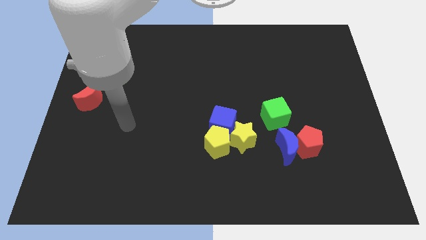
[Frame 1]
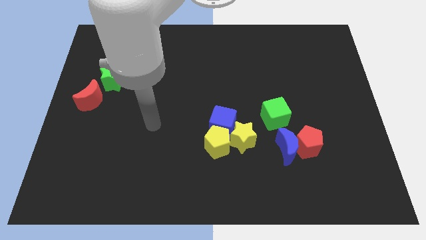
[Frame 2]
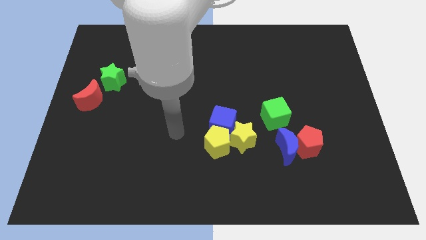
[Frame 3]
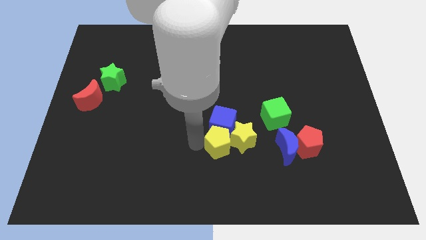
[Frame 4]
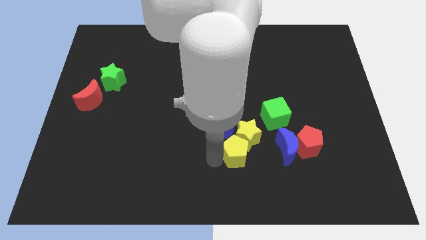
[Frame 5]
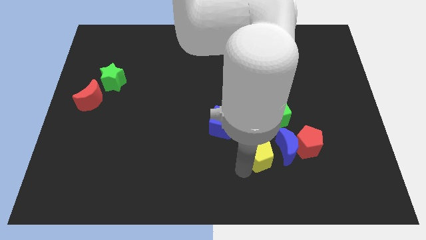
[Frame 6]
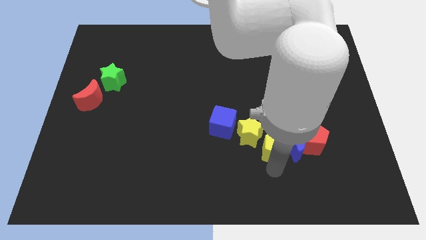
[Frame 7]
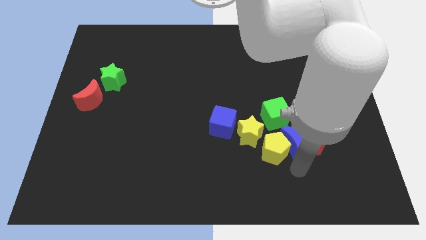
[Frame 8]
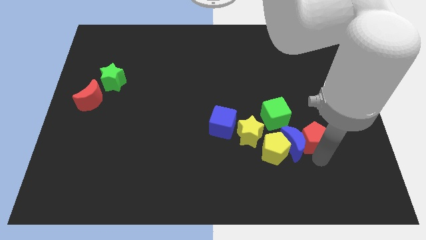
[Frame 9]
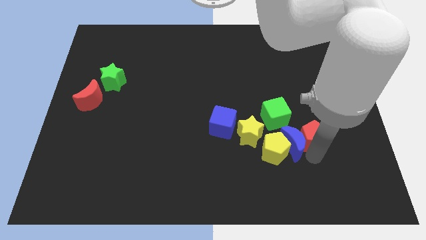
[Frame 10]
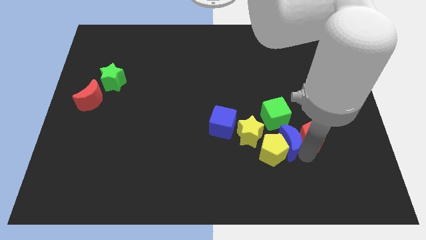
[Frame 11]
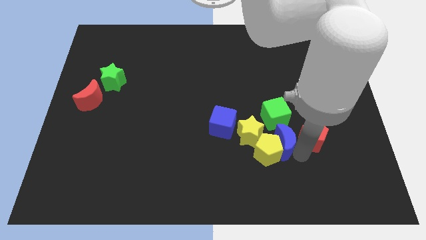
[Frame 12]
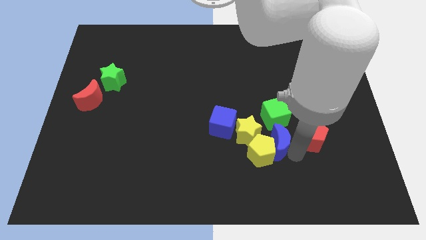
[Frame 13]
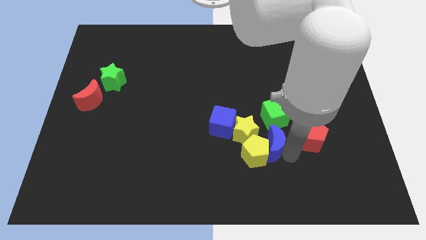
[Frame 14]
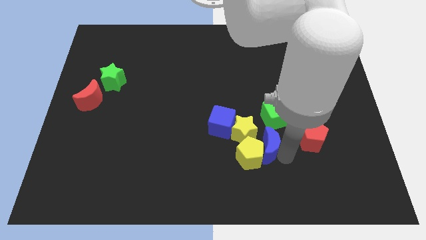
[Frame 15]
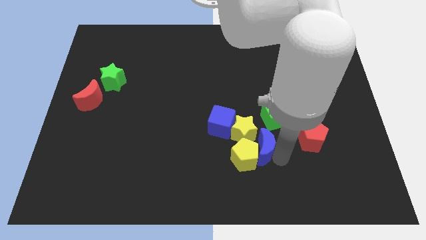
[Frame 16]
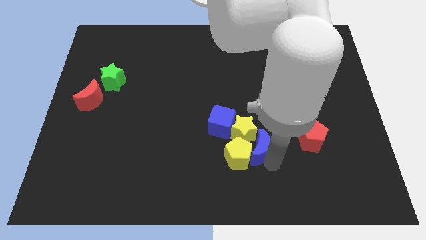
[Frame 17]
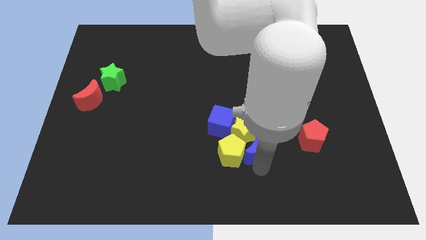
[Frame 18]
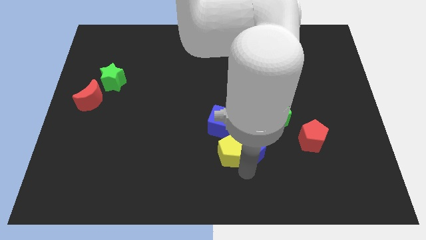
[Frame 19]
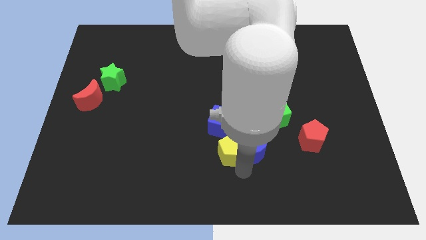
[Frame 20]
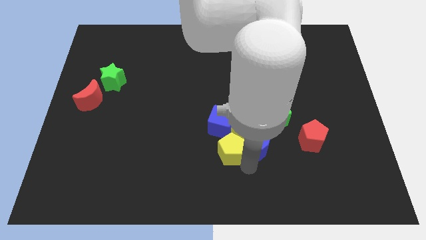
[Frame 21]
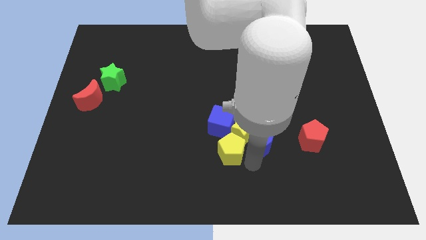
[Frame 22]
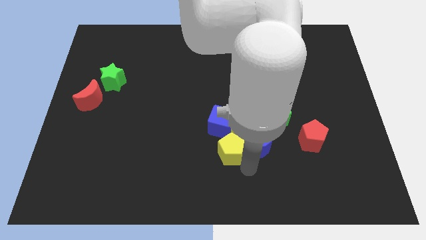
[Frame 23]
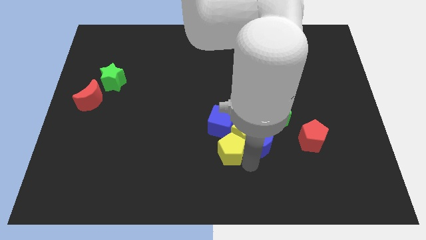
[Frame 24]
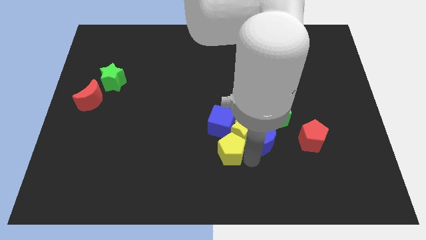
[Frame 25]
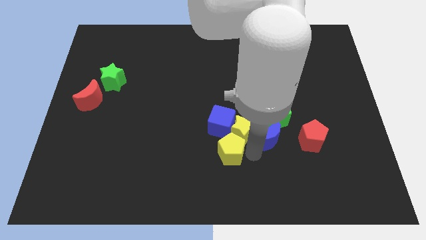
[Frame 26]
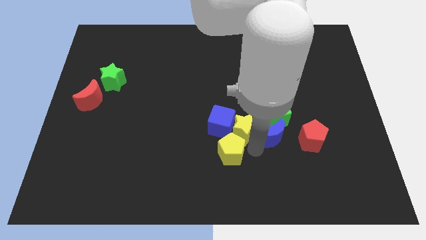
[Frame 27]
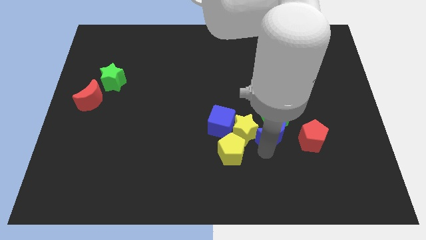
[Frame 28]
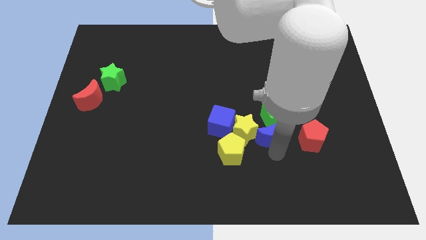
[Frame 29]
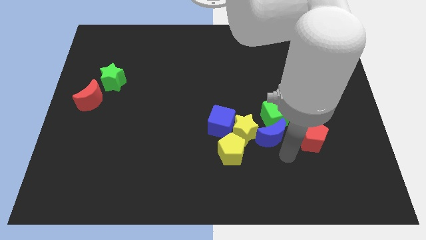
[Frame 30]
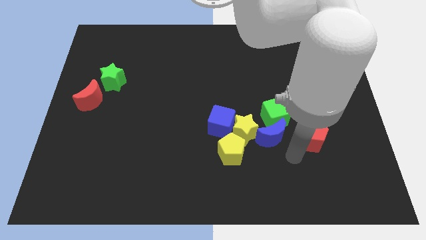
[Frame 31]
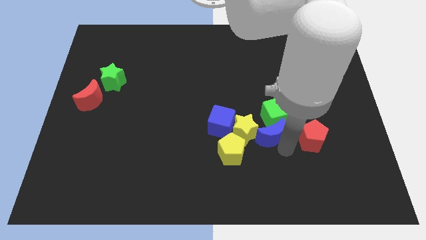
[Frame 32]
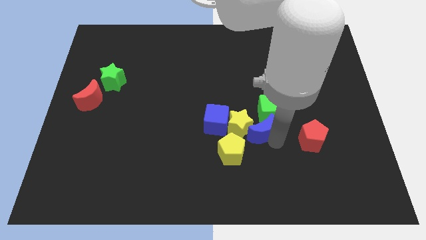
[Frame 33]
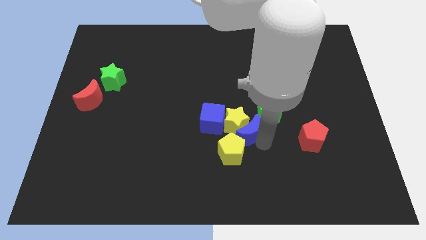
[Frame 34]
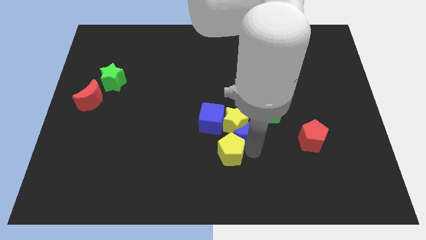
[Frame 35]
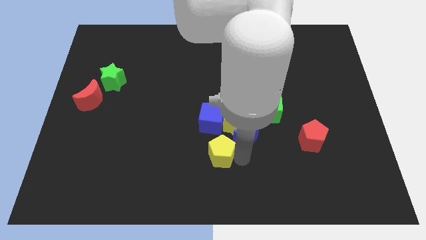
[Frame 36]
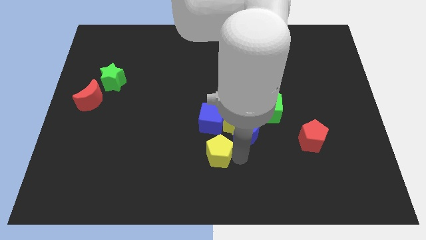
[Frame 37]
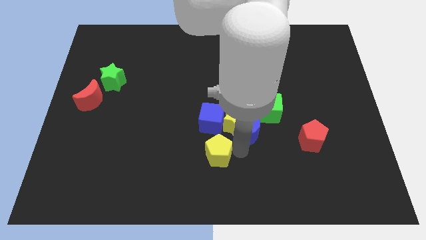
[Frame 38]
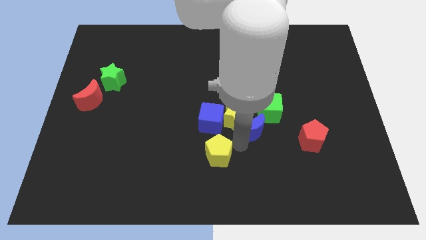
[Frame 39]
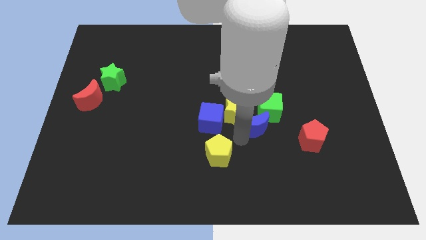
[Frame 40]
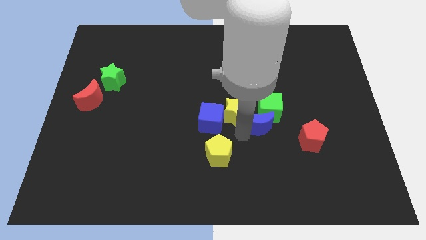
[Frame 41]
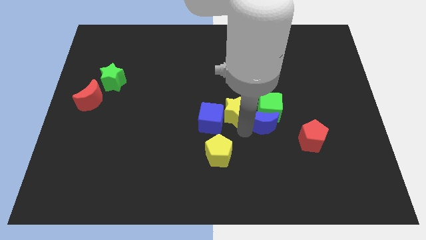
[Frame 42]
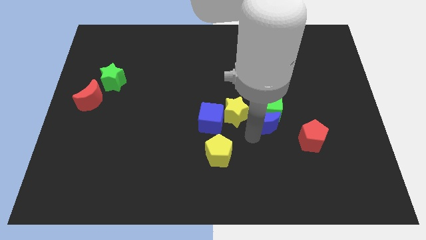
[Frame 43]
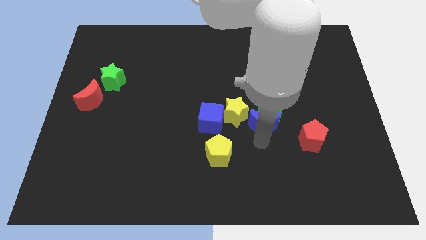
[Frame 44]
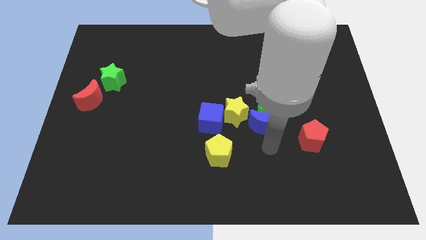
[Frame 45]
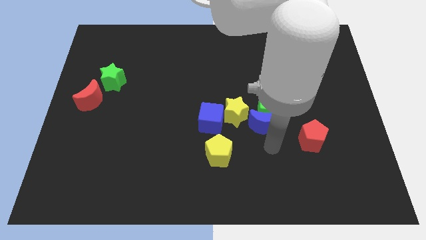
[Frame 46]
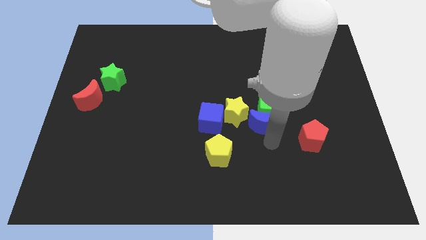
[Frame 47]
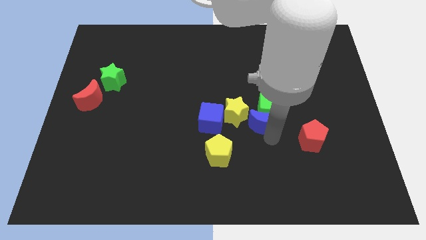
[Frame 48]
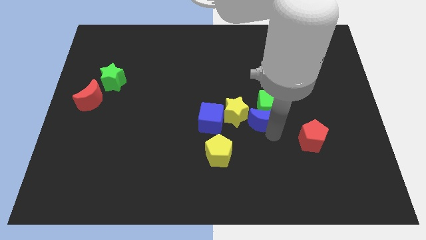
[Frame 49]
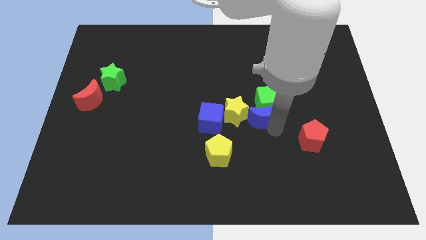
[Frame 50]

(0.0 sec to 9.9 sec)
push the blue moon somewhat up

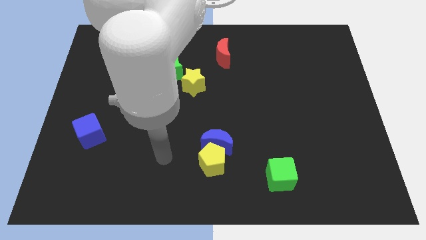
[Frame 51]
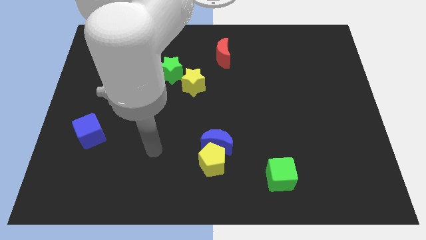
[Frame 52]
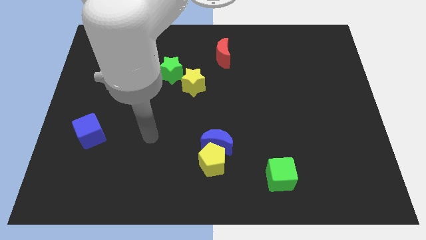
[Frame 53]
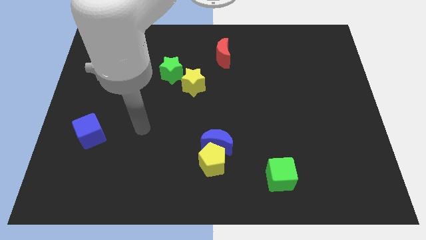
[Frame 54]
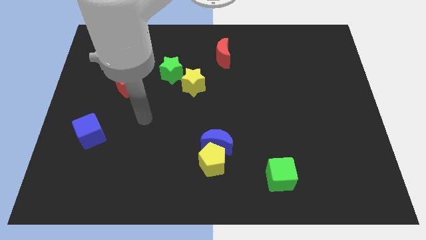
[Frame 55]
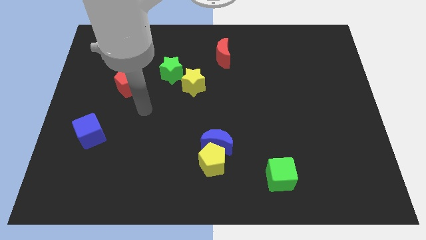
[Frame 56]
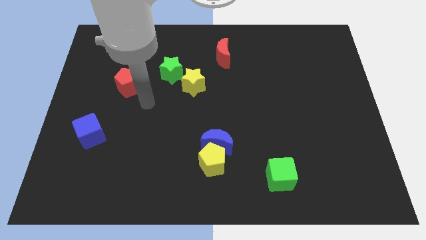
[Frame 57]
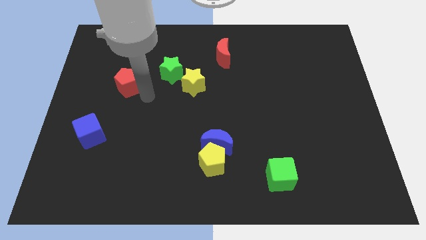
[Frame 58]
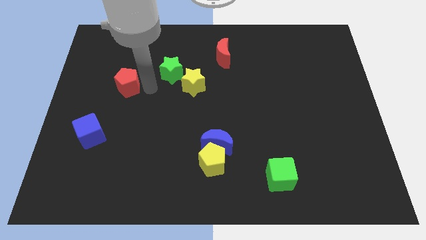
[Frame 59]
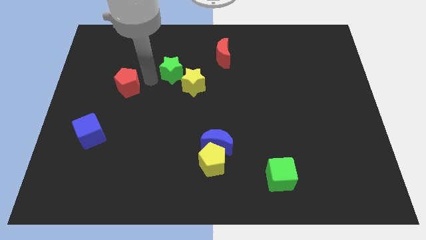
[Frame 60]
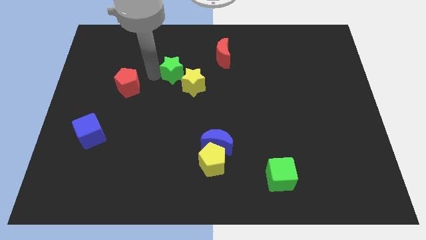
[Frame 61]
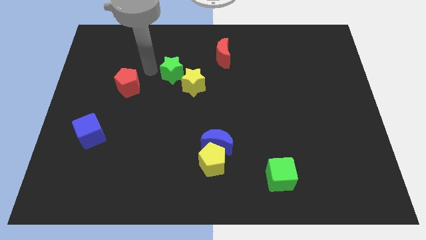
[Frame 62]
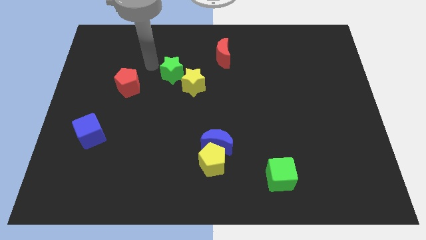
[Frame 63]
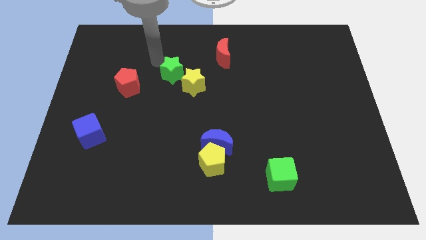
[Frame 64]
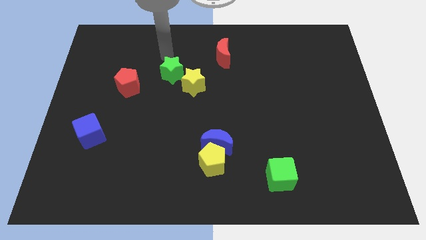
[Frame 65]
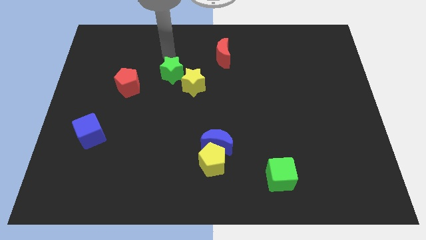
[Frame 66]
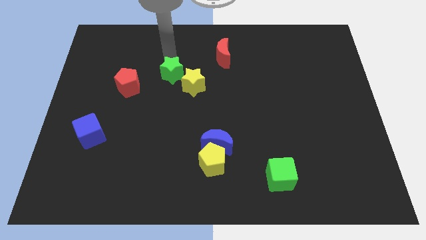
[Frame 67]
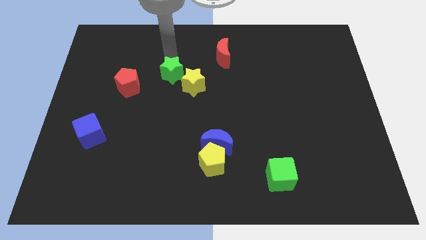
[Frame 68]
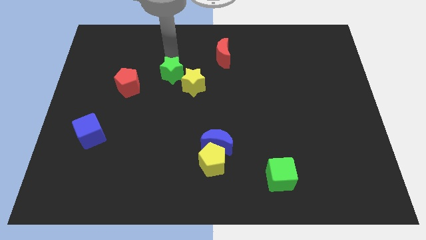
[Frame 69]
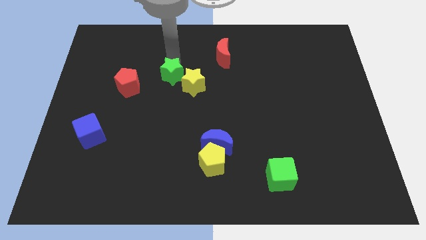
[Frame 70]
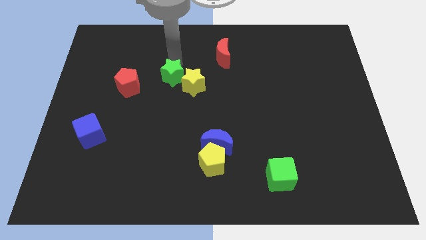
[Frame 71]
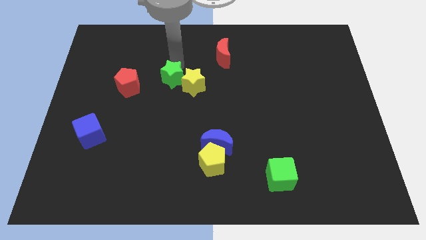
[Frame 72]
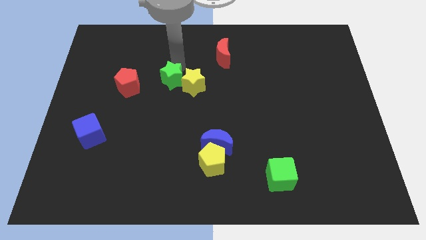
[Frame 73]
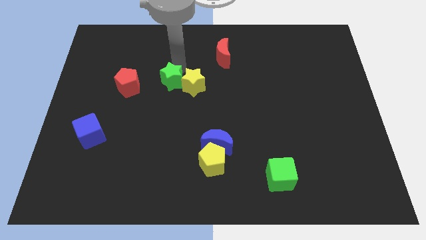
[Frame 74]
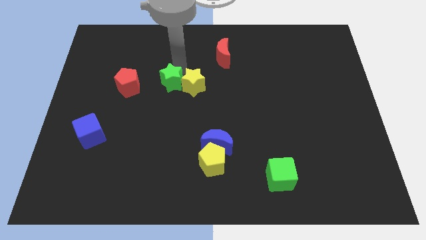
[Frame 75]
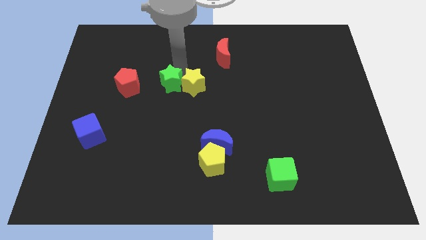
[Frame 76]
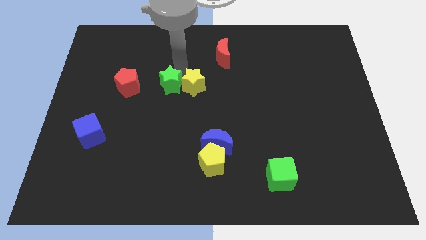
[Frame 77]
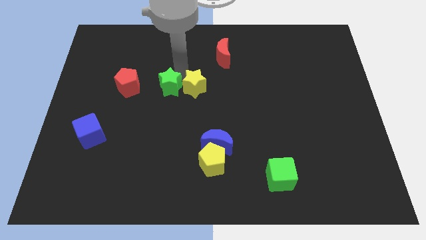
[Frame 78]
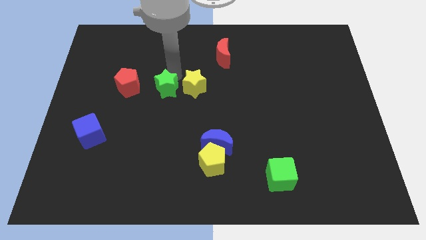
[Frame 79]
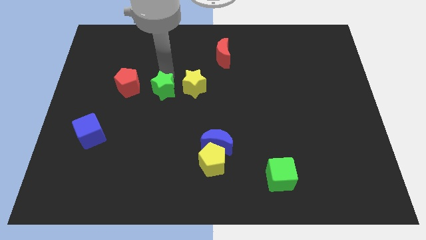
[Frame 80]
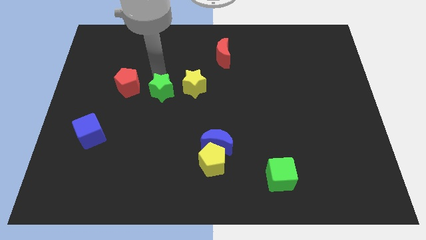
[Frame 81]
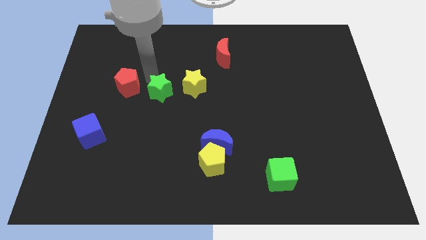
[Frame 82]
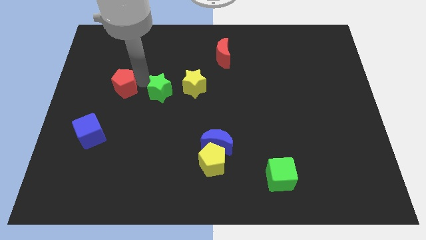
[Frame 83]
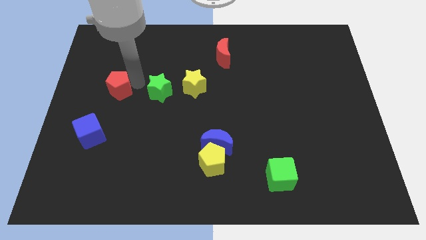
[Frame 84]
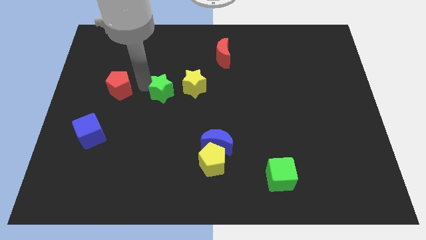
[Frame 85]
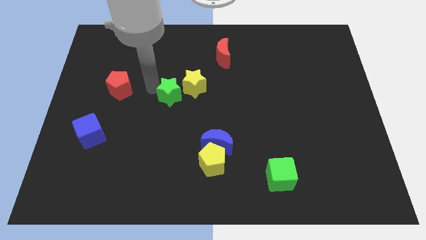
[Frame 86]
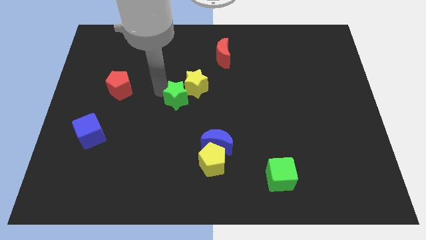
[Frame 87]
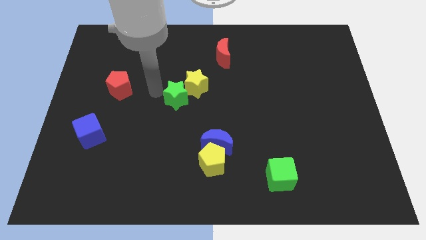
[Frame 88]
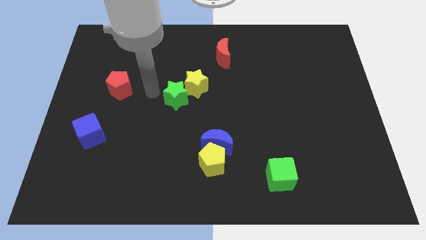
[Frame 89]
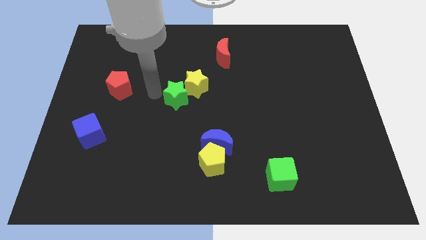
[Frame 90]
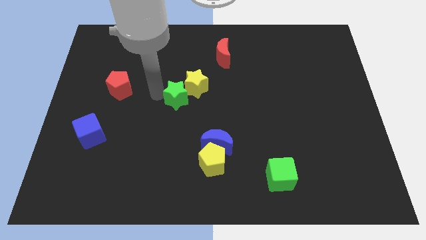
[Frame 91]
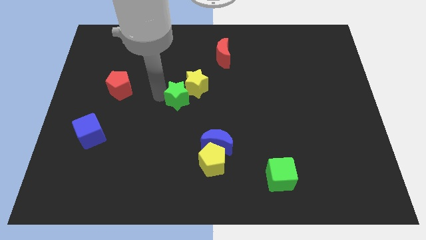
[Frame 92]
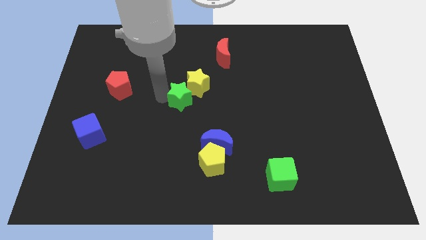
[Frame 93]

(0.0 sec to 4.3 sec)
push the green star slightly down and then right
